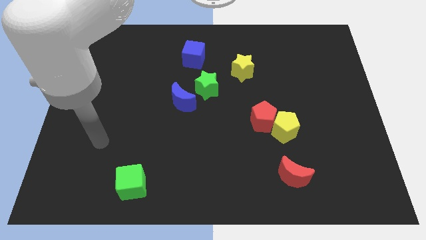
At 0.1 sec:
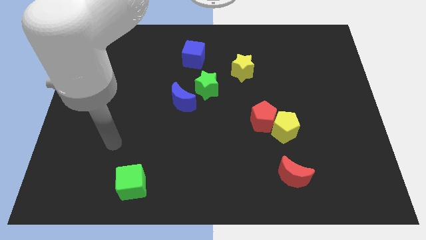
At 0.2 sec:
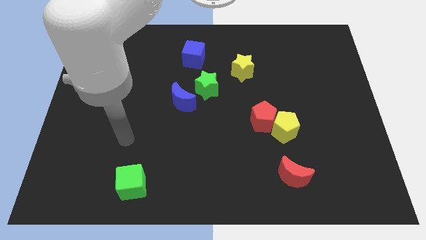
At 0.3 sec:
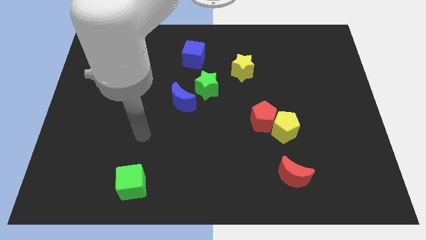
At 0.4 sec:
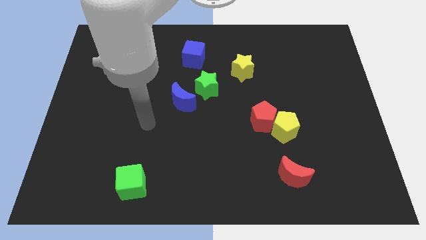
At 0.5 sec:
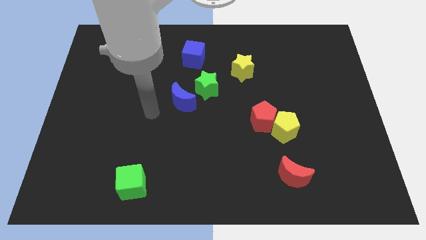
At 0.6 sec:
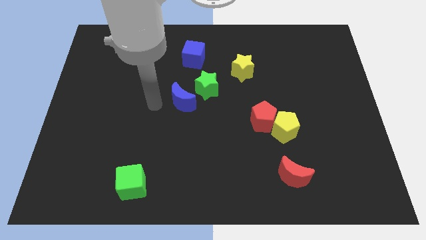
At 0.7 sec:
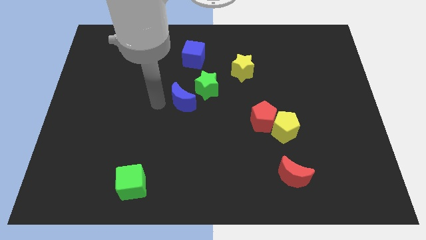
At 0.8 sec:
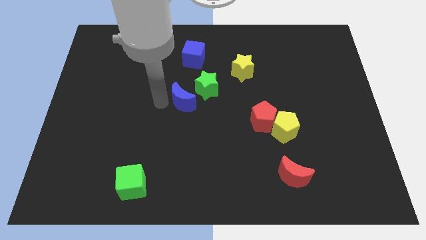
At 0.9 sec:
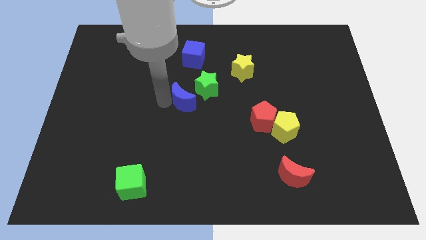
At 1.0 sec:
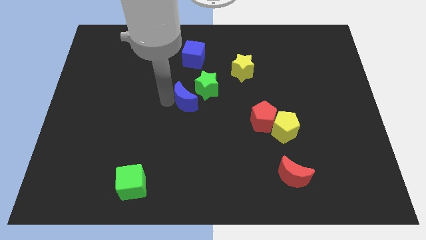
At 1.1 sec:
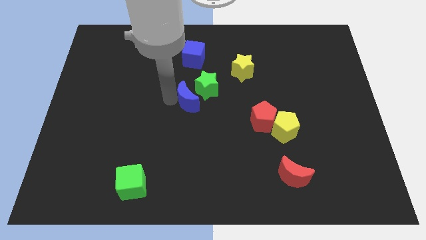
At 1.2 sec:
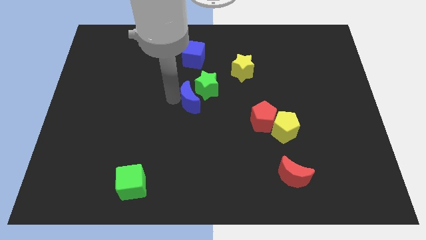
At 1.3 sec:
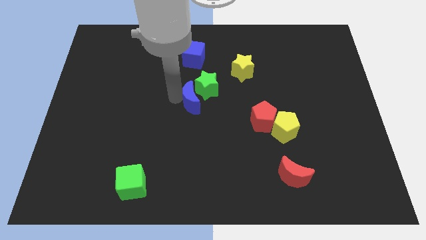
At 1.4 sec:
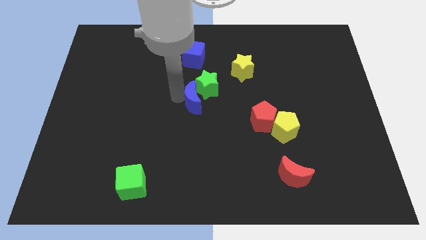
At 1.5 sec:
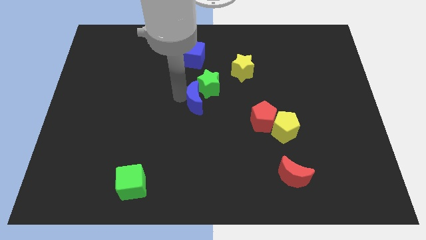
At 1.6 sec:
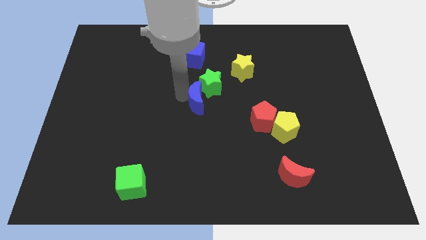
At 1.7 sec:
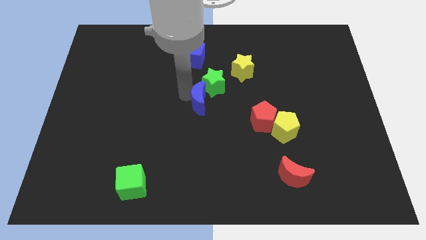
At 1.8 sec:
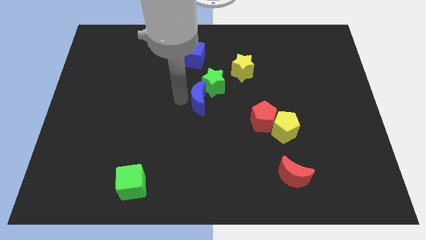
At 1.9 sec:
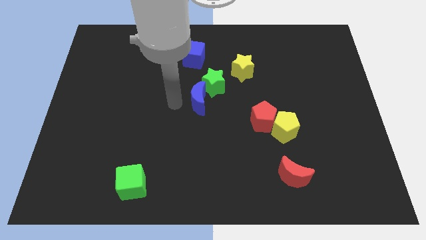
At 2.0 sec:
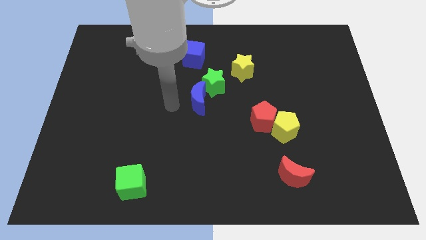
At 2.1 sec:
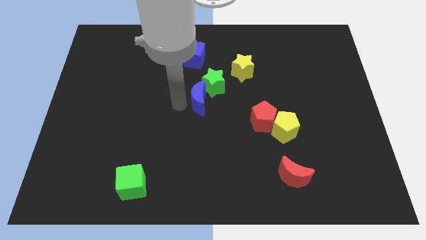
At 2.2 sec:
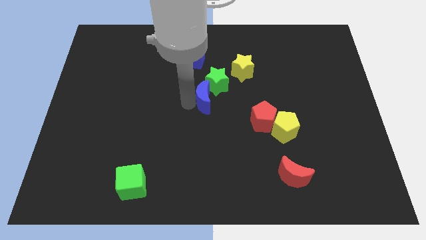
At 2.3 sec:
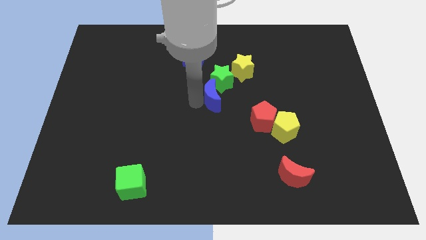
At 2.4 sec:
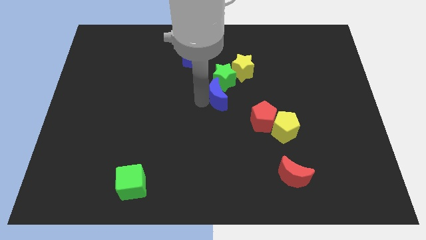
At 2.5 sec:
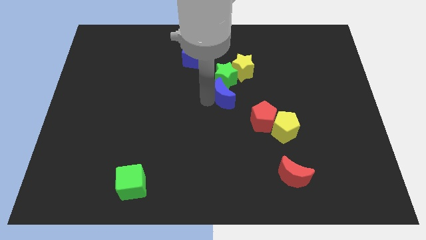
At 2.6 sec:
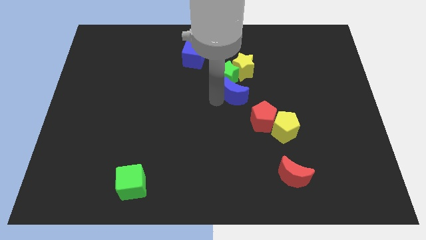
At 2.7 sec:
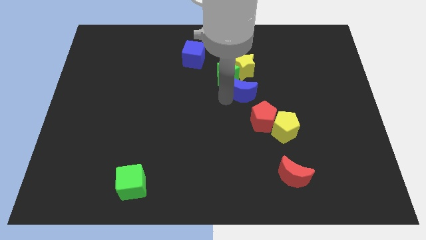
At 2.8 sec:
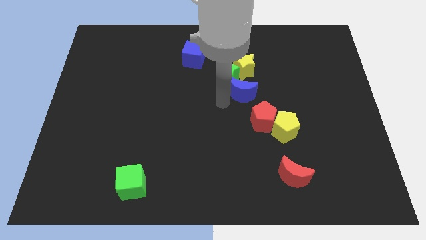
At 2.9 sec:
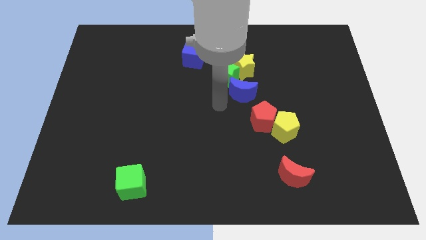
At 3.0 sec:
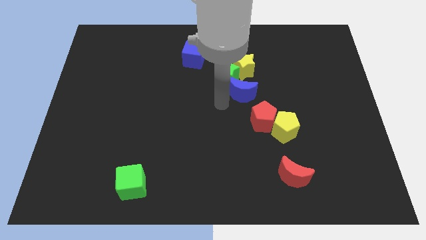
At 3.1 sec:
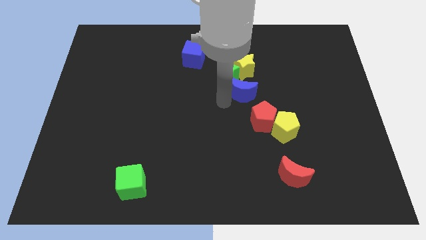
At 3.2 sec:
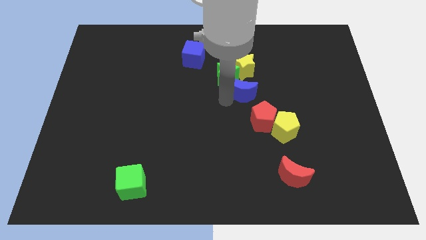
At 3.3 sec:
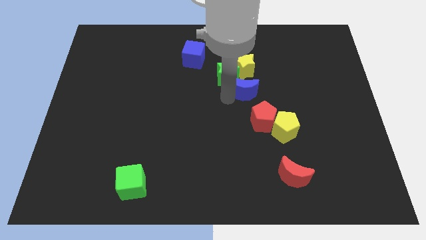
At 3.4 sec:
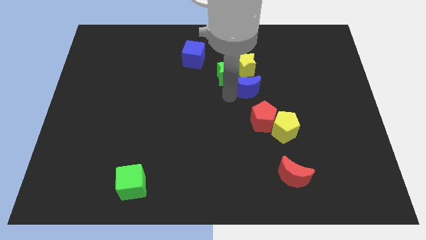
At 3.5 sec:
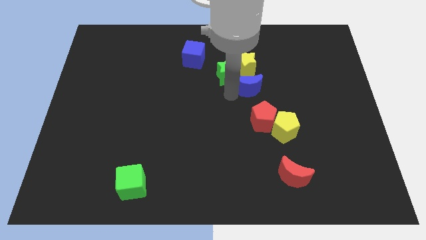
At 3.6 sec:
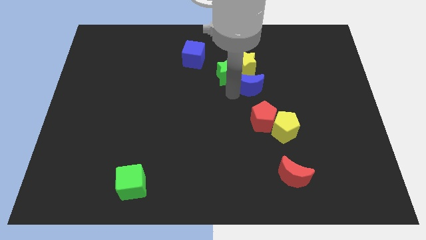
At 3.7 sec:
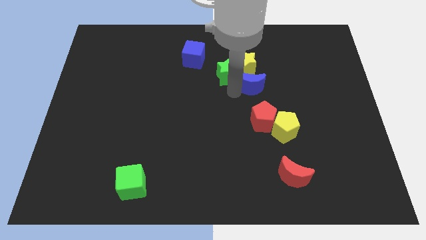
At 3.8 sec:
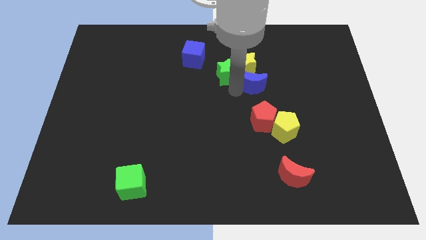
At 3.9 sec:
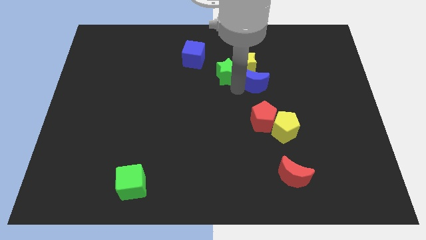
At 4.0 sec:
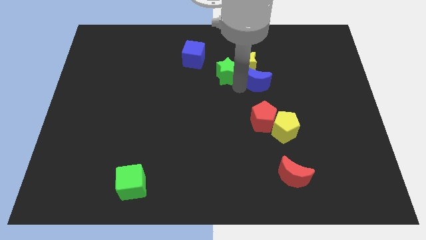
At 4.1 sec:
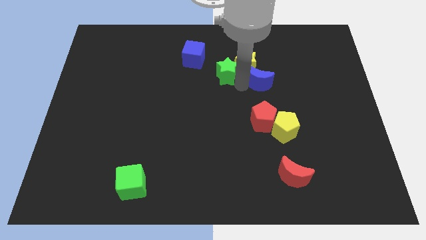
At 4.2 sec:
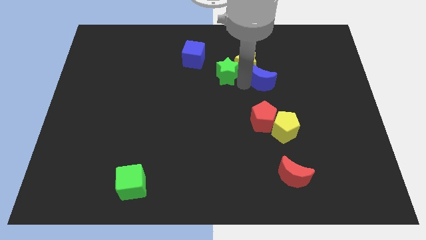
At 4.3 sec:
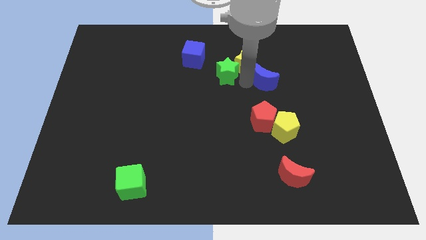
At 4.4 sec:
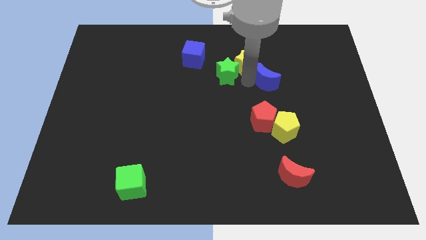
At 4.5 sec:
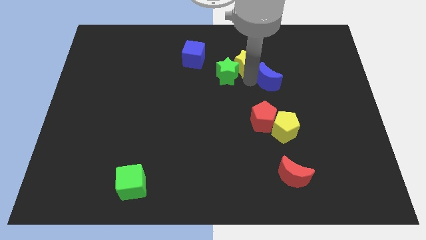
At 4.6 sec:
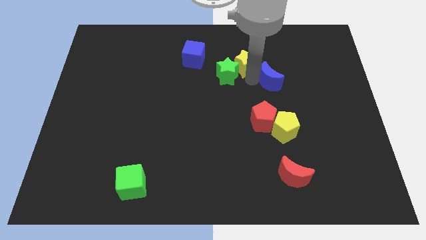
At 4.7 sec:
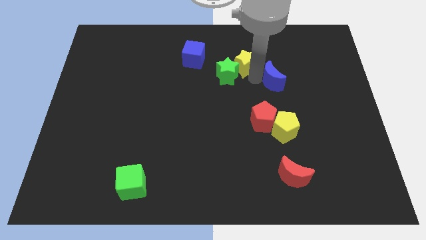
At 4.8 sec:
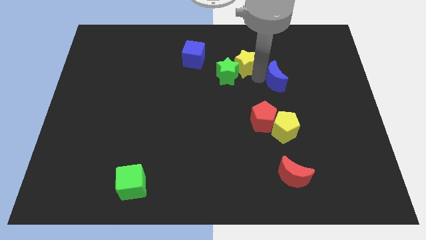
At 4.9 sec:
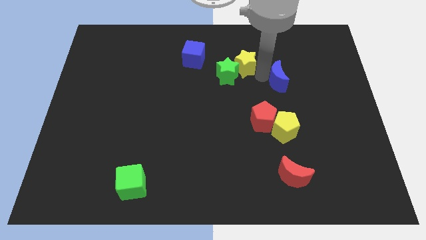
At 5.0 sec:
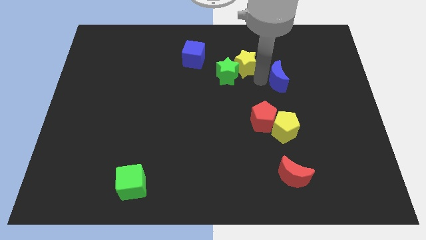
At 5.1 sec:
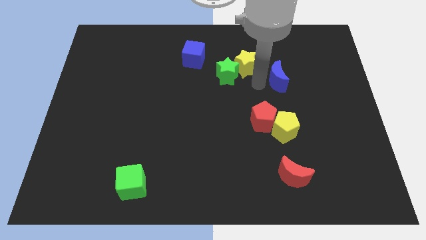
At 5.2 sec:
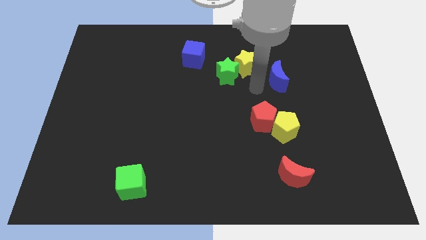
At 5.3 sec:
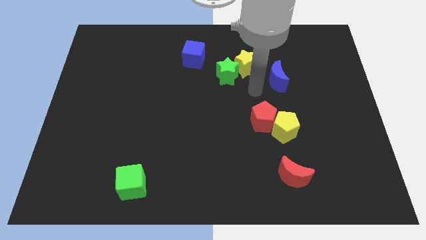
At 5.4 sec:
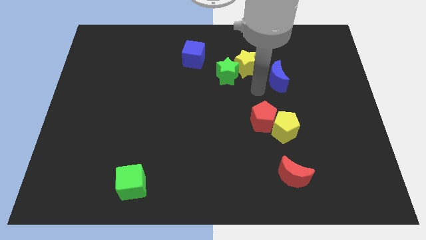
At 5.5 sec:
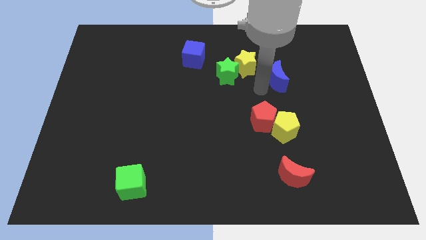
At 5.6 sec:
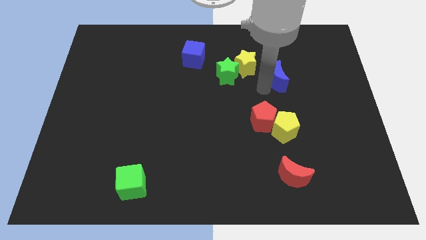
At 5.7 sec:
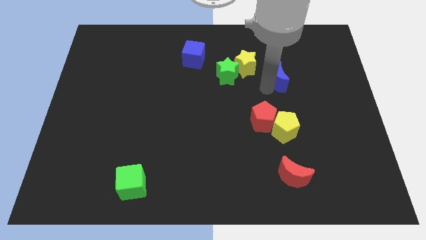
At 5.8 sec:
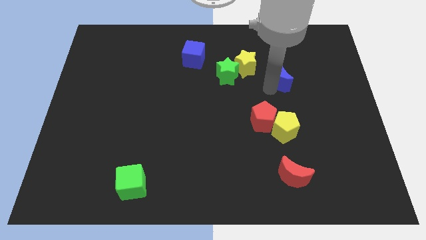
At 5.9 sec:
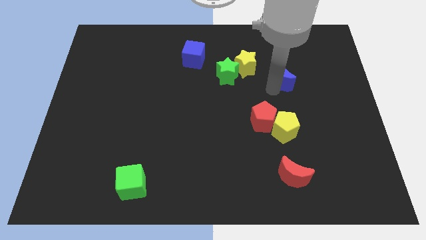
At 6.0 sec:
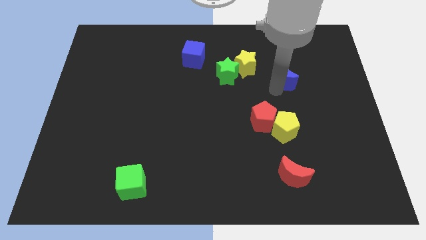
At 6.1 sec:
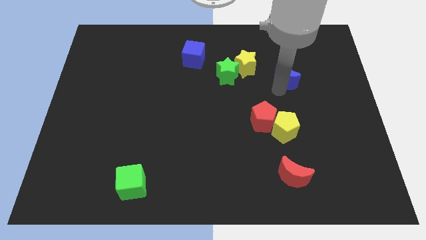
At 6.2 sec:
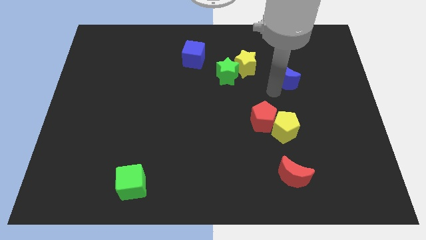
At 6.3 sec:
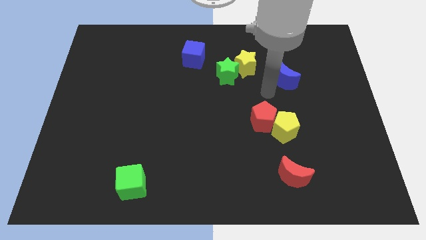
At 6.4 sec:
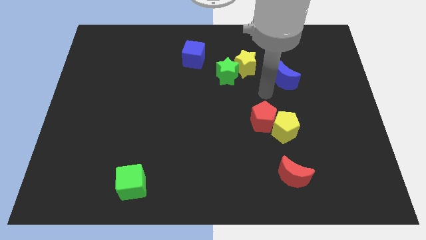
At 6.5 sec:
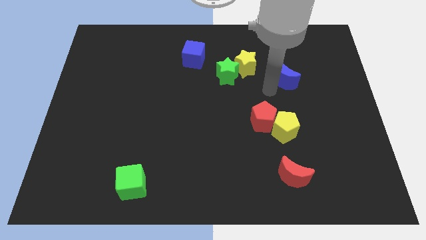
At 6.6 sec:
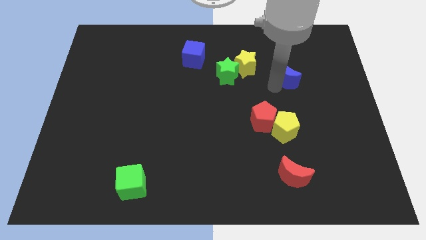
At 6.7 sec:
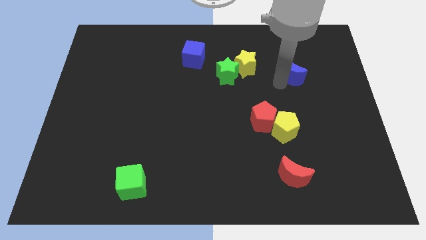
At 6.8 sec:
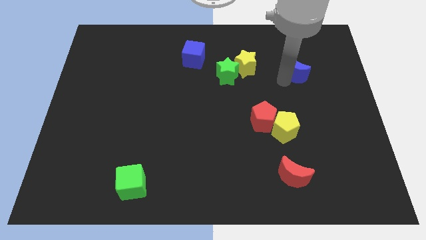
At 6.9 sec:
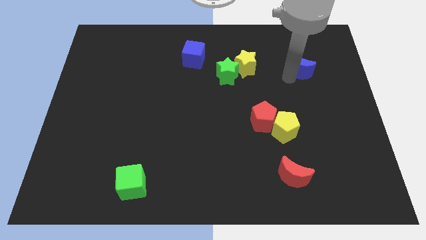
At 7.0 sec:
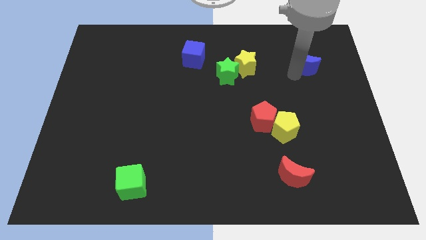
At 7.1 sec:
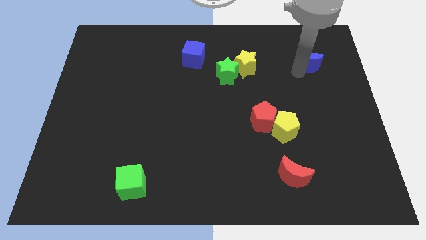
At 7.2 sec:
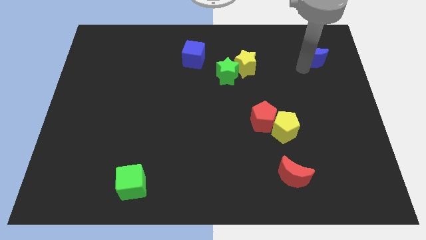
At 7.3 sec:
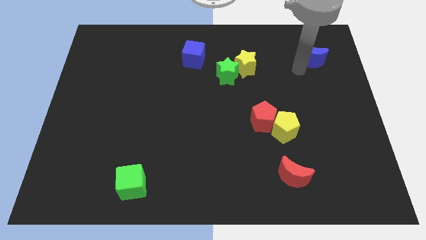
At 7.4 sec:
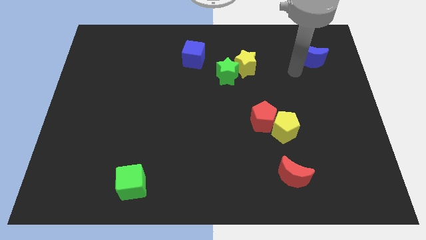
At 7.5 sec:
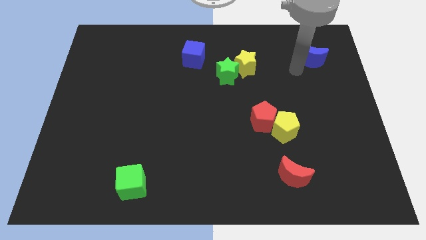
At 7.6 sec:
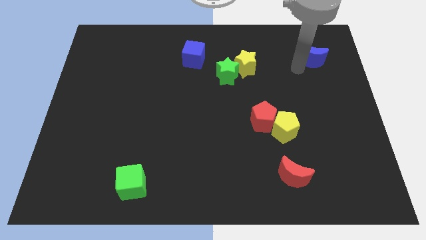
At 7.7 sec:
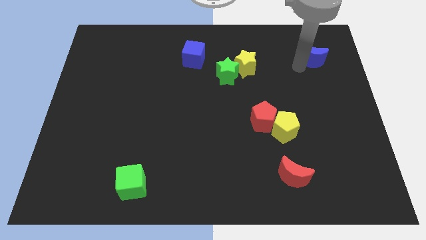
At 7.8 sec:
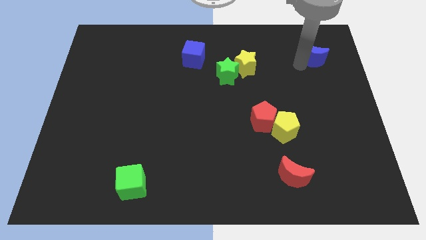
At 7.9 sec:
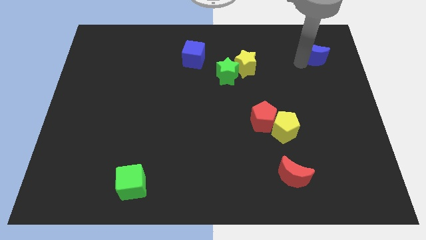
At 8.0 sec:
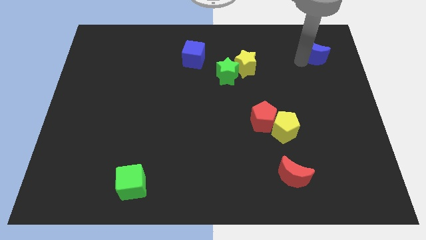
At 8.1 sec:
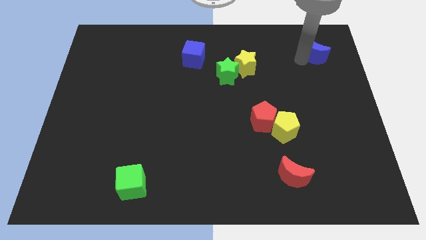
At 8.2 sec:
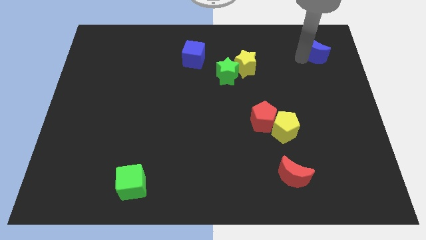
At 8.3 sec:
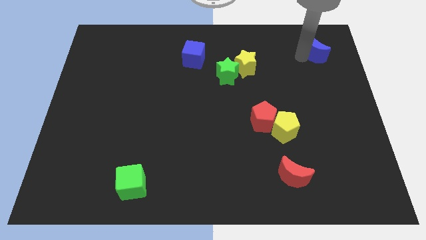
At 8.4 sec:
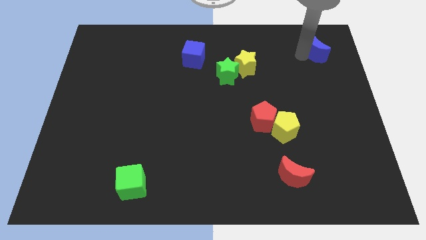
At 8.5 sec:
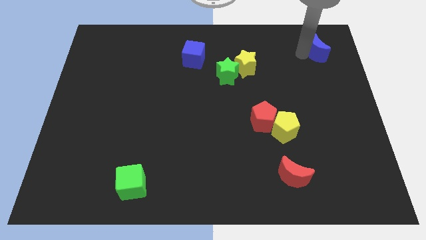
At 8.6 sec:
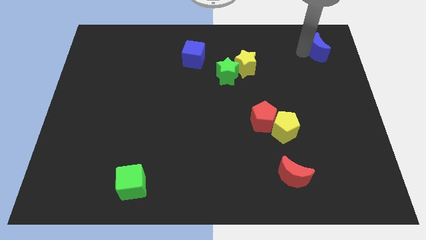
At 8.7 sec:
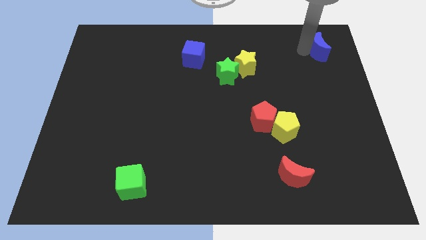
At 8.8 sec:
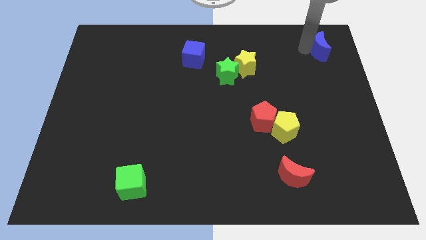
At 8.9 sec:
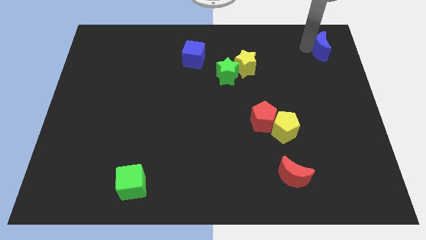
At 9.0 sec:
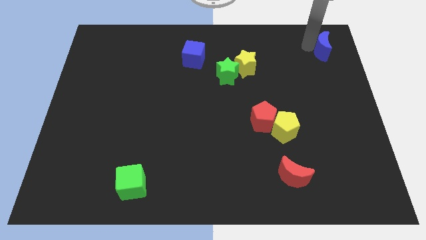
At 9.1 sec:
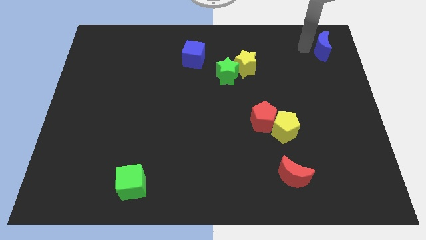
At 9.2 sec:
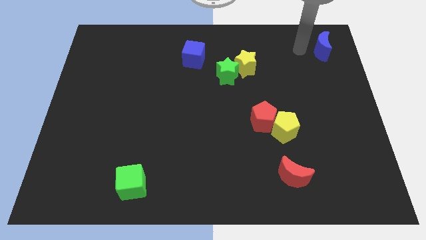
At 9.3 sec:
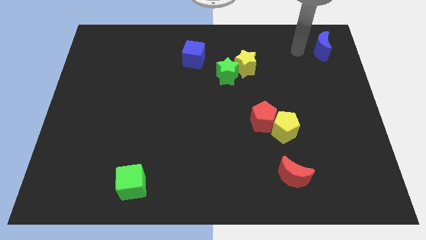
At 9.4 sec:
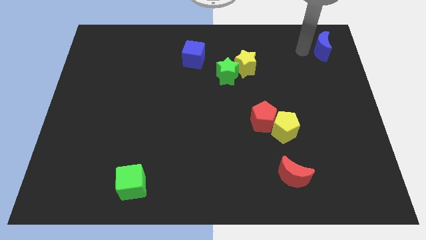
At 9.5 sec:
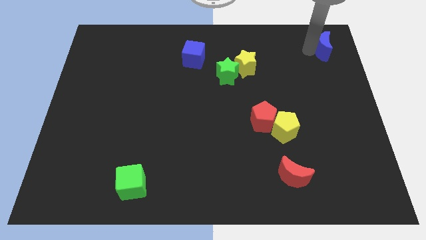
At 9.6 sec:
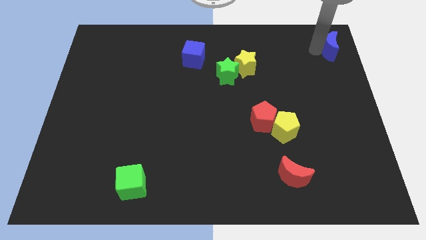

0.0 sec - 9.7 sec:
put the blue moon to the top right of the board
